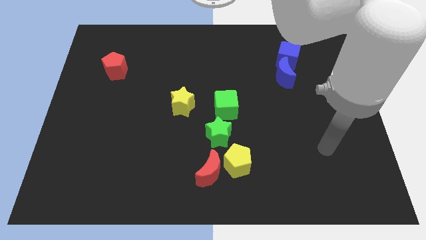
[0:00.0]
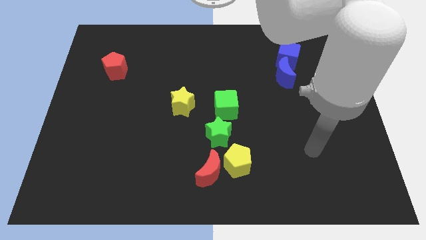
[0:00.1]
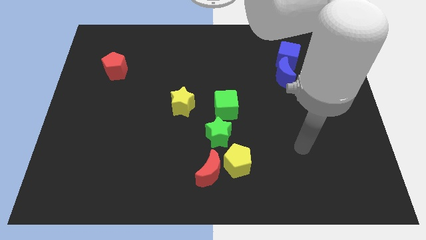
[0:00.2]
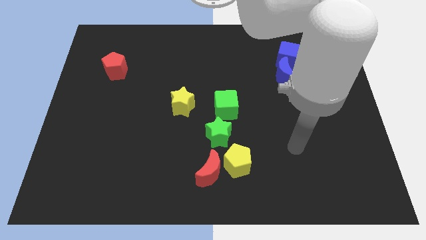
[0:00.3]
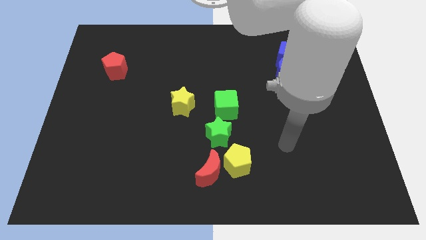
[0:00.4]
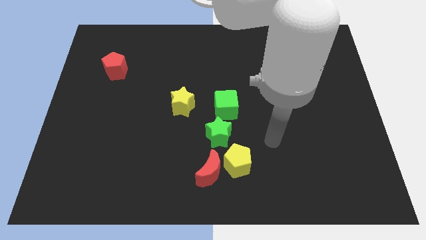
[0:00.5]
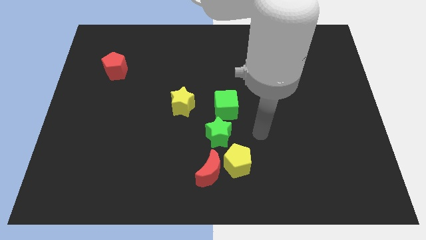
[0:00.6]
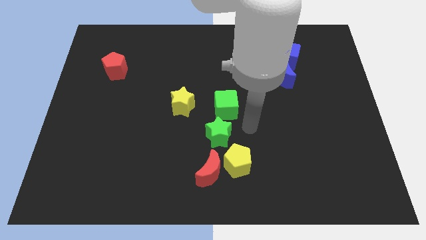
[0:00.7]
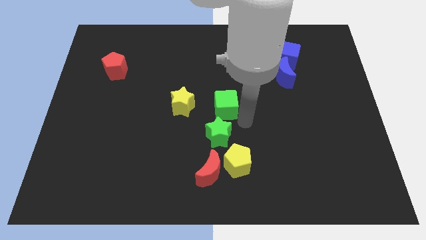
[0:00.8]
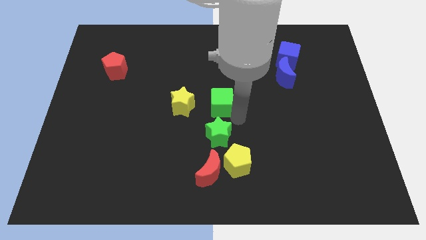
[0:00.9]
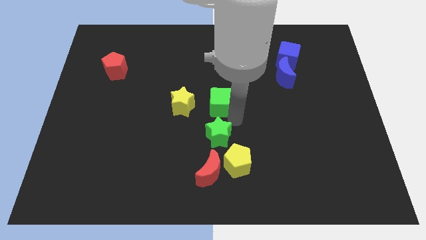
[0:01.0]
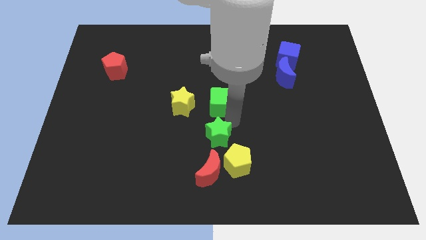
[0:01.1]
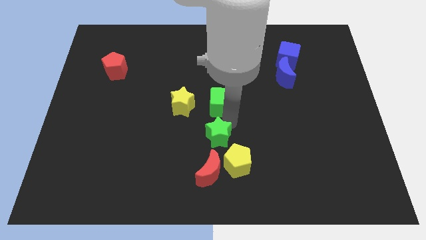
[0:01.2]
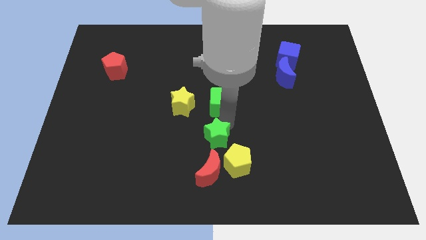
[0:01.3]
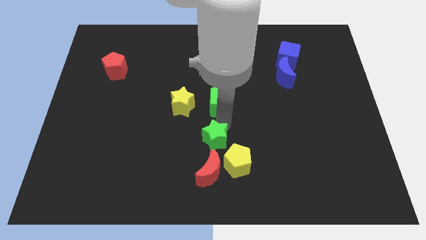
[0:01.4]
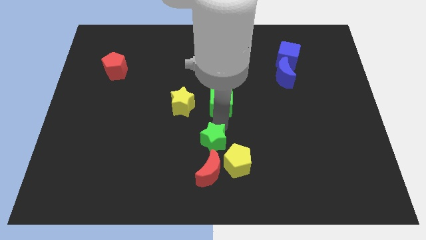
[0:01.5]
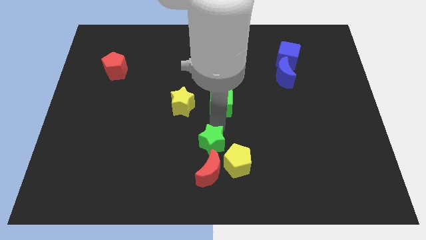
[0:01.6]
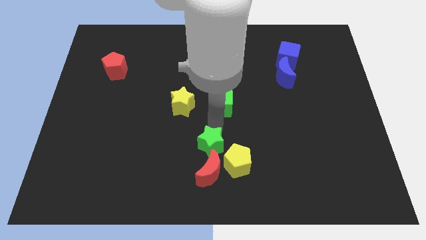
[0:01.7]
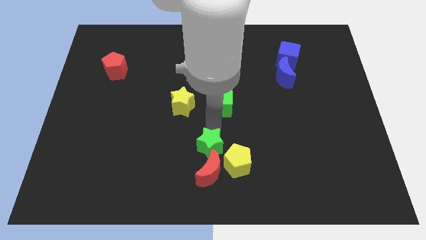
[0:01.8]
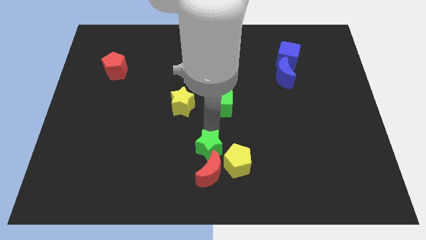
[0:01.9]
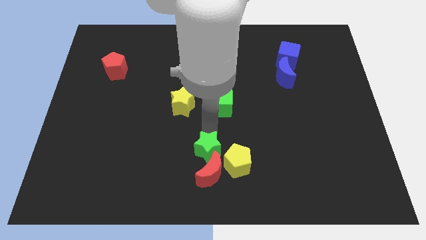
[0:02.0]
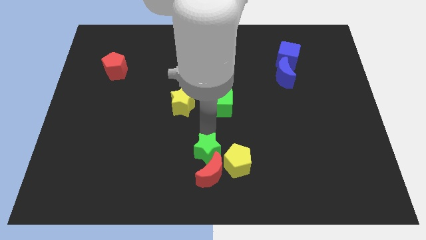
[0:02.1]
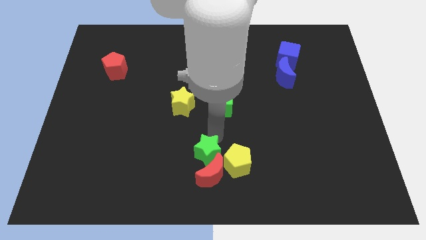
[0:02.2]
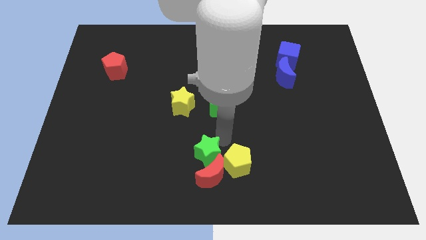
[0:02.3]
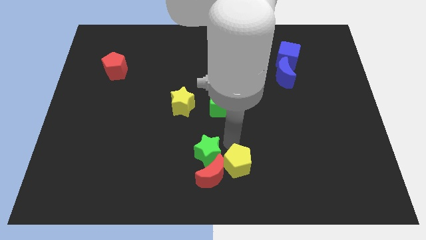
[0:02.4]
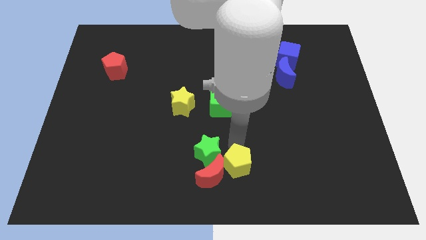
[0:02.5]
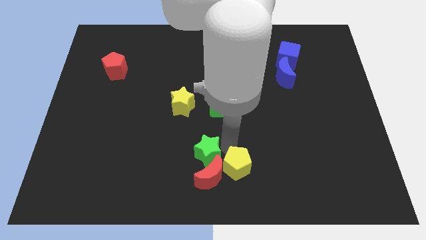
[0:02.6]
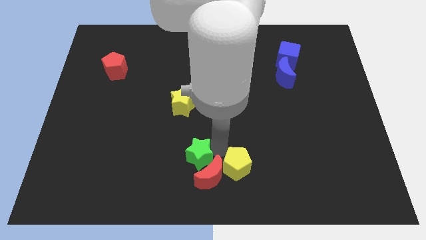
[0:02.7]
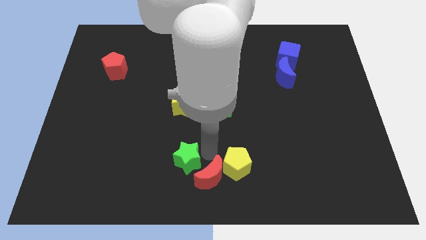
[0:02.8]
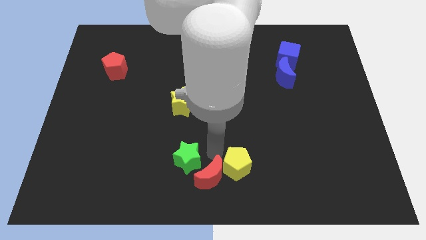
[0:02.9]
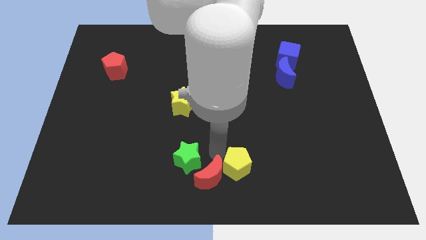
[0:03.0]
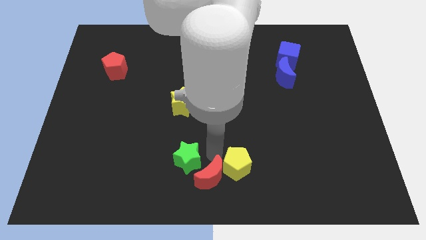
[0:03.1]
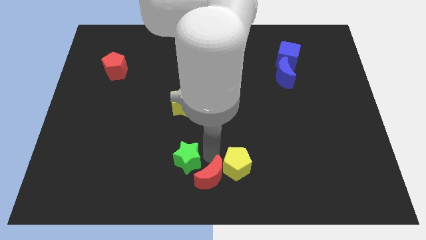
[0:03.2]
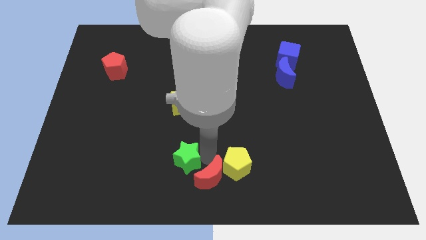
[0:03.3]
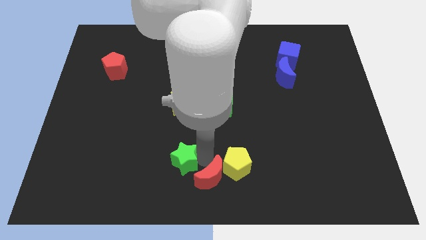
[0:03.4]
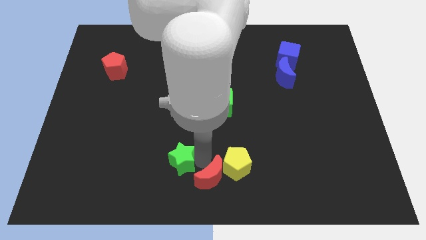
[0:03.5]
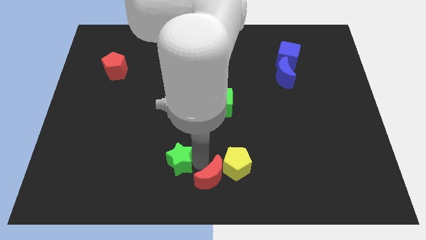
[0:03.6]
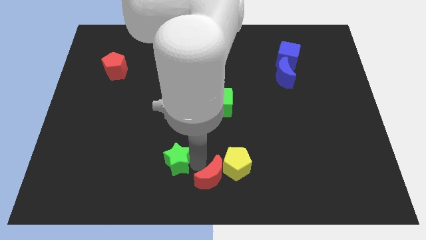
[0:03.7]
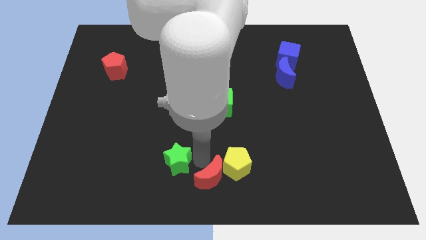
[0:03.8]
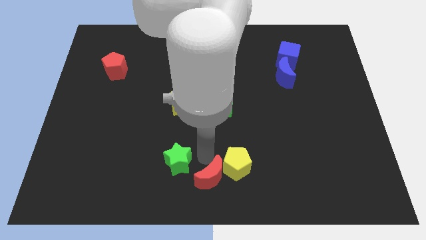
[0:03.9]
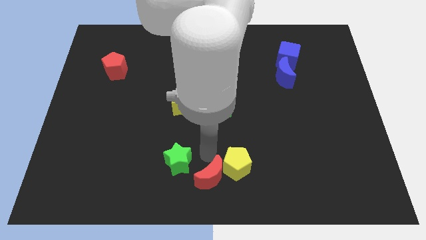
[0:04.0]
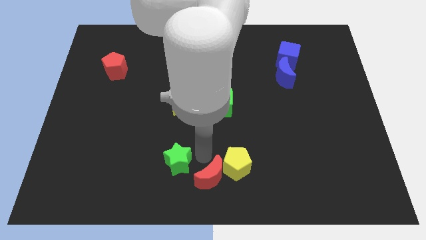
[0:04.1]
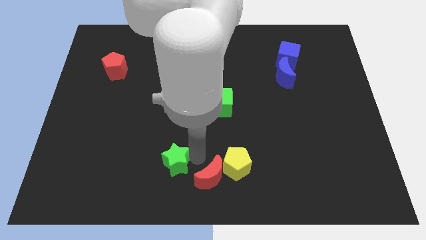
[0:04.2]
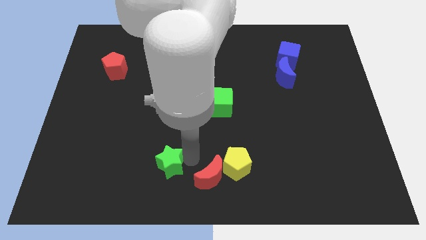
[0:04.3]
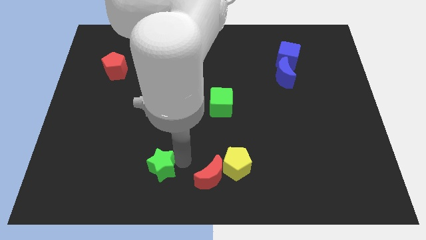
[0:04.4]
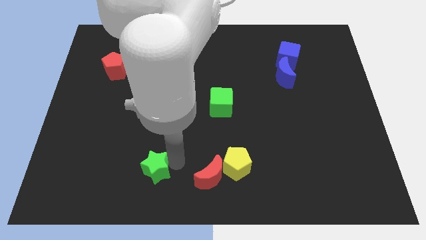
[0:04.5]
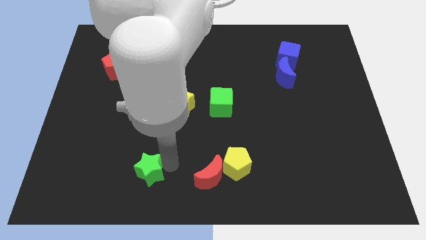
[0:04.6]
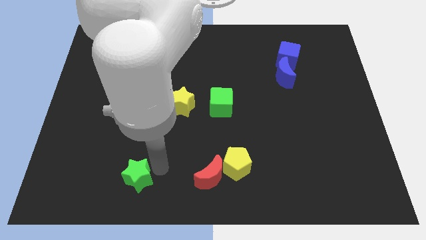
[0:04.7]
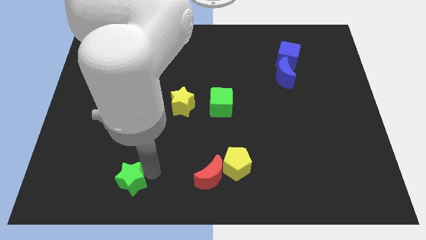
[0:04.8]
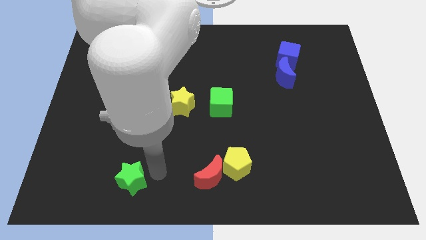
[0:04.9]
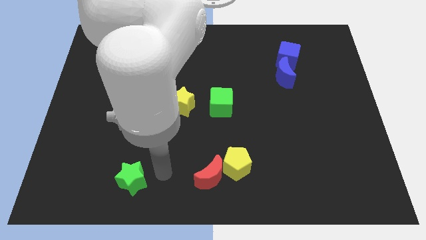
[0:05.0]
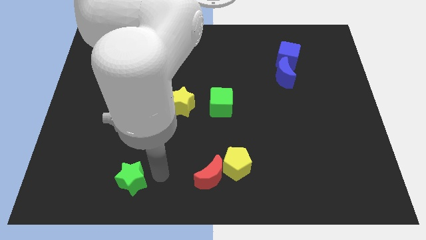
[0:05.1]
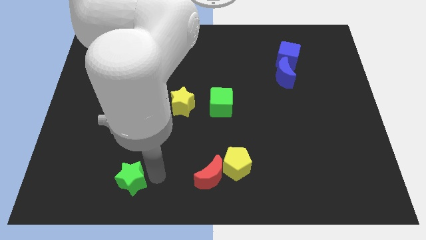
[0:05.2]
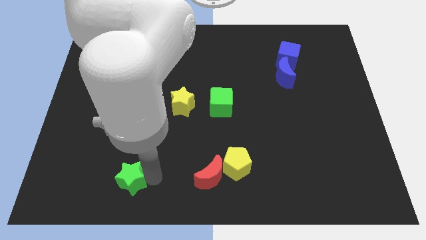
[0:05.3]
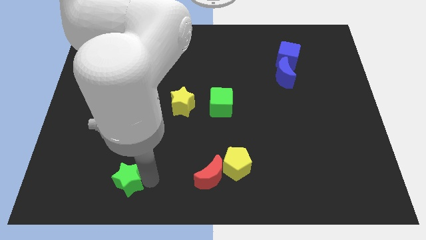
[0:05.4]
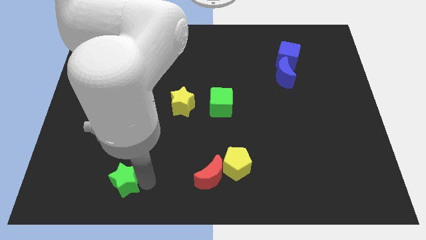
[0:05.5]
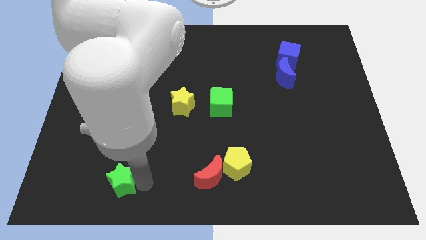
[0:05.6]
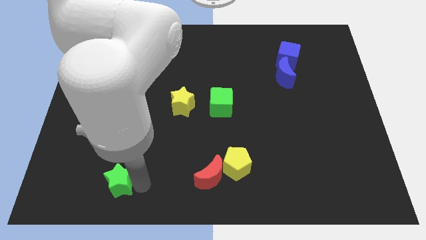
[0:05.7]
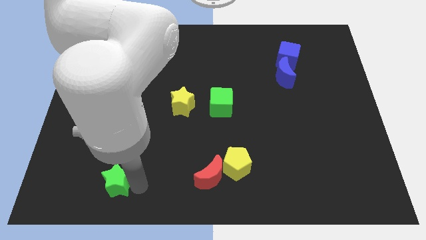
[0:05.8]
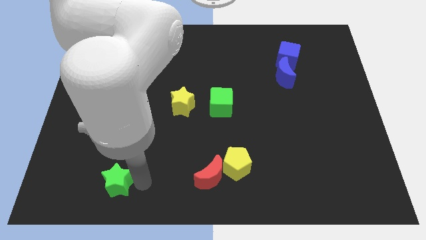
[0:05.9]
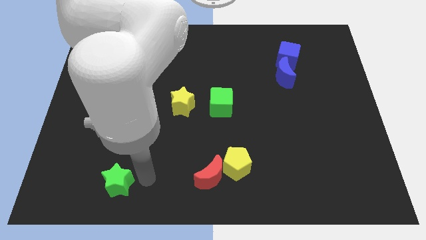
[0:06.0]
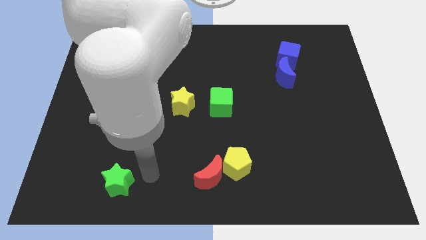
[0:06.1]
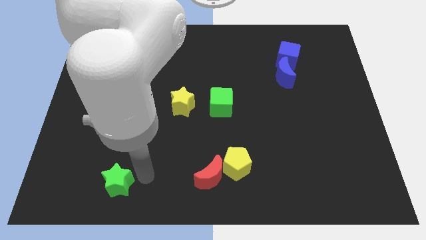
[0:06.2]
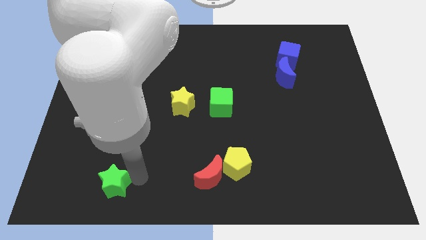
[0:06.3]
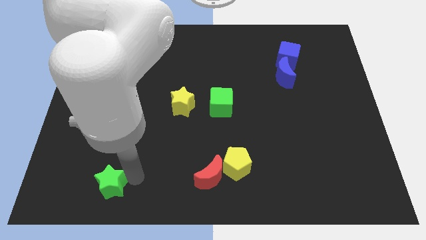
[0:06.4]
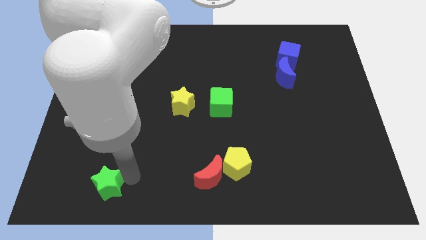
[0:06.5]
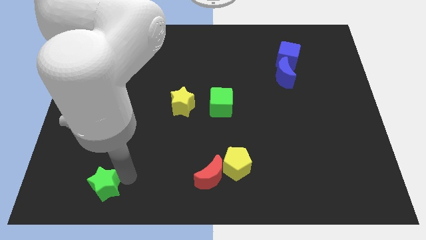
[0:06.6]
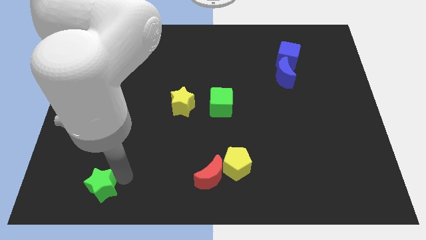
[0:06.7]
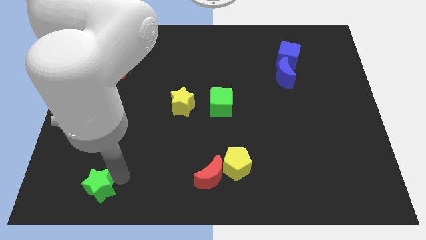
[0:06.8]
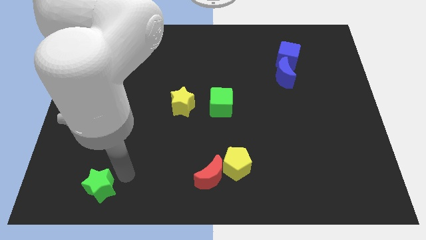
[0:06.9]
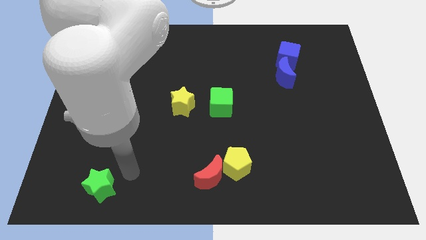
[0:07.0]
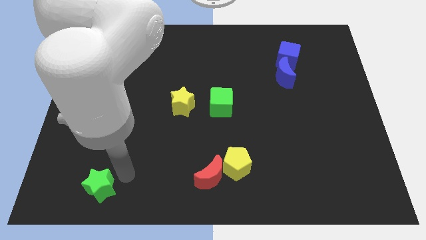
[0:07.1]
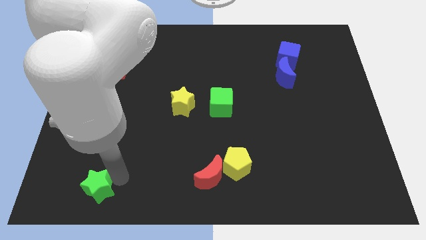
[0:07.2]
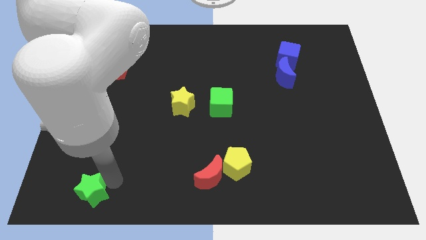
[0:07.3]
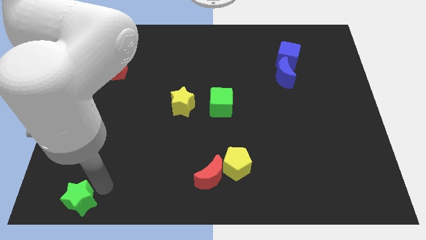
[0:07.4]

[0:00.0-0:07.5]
push the green star to the bottom left
